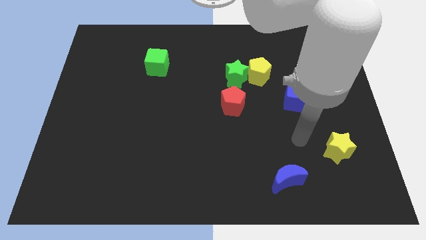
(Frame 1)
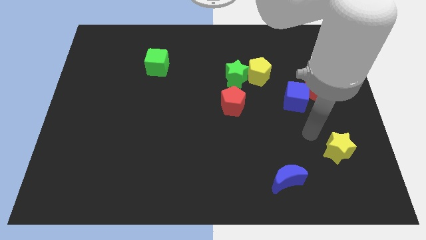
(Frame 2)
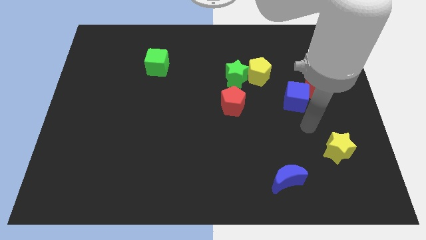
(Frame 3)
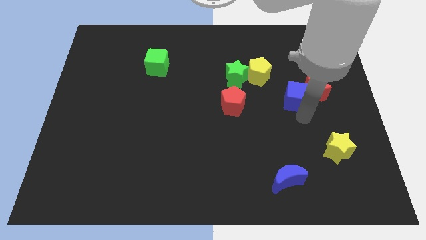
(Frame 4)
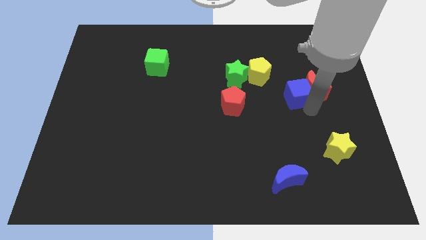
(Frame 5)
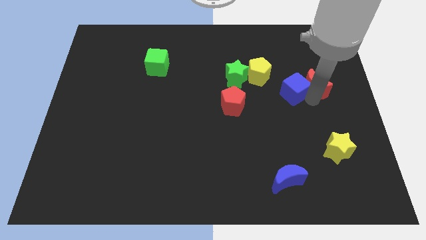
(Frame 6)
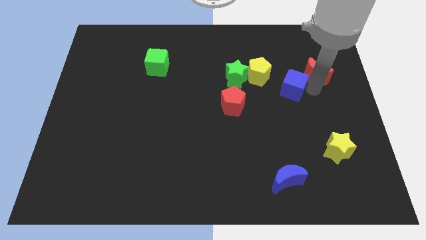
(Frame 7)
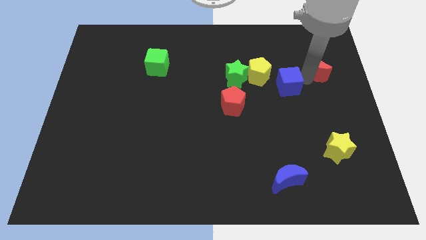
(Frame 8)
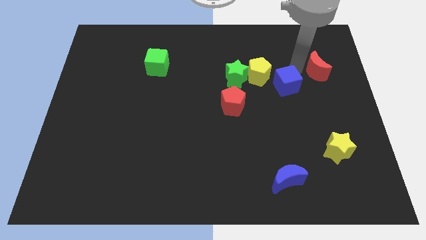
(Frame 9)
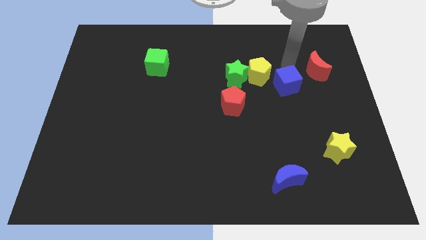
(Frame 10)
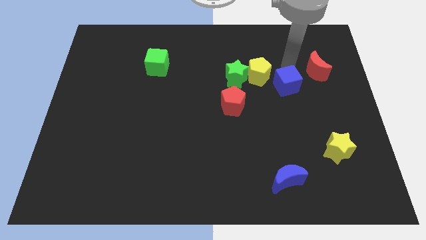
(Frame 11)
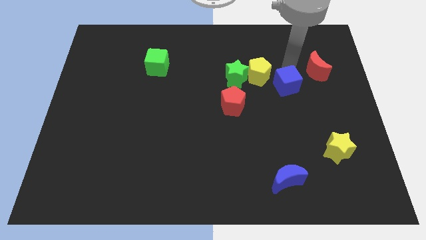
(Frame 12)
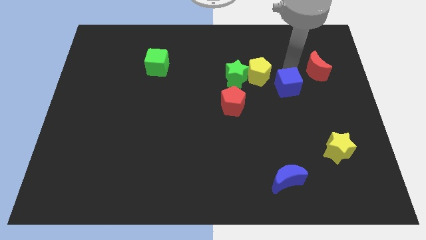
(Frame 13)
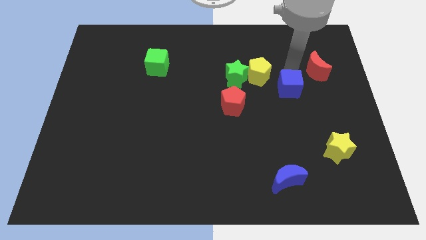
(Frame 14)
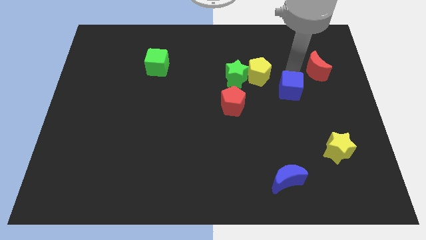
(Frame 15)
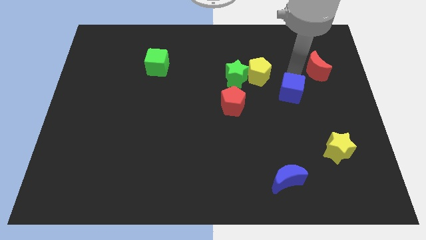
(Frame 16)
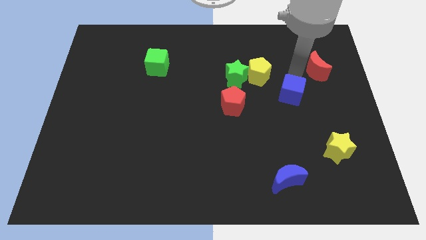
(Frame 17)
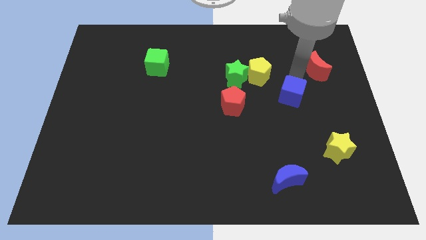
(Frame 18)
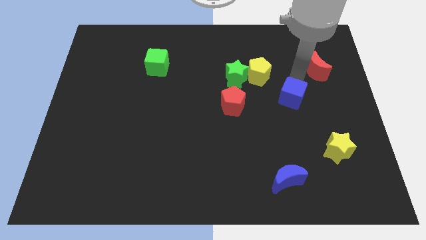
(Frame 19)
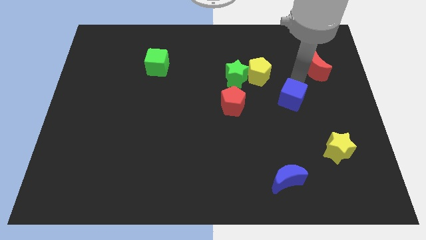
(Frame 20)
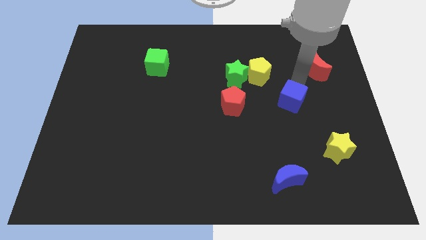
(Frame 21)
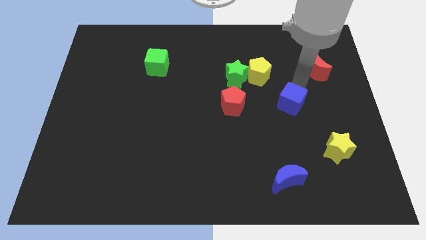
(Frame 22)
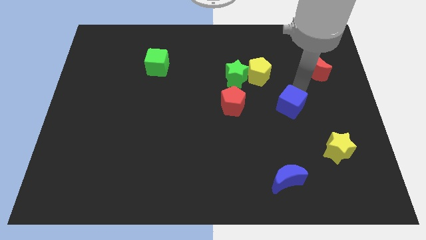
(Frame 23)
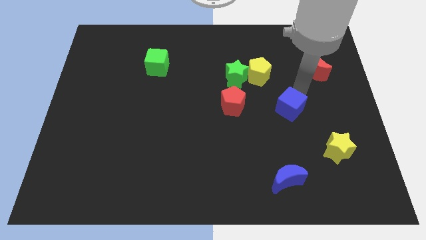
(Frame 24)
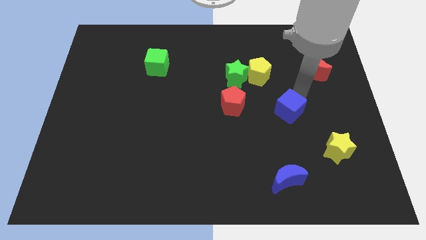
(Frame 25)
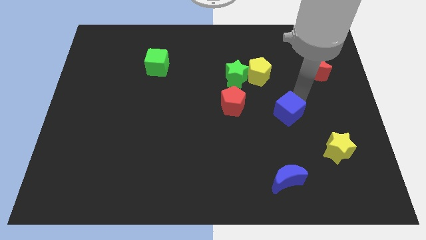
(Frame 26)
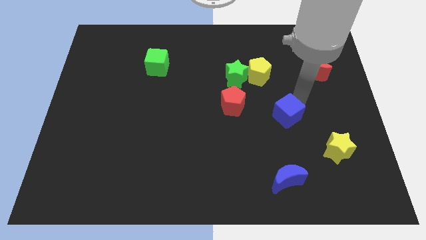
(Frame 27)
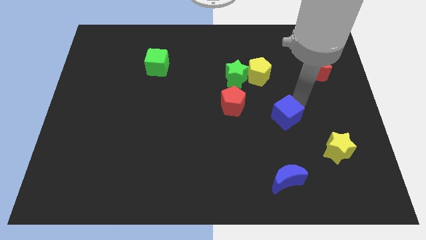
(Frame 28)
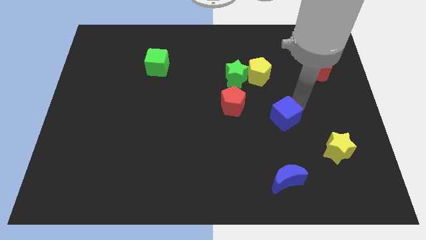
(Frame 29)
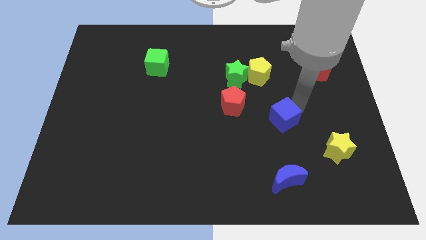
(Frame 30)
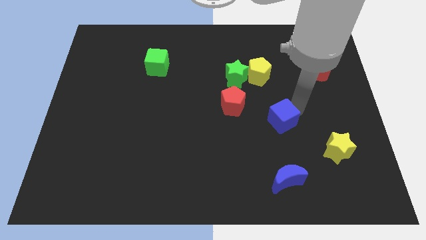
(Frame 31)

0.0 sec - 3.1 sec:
move the blue cube downwards and to the left diagonally a bit

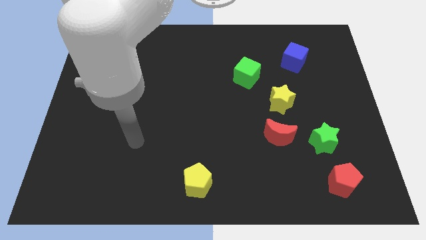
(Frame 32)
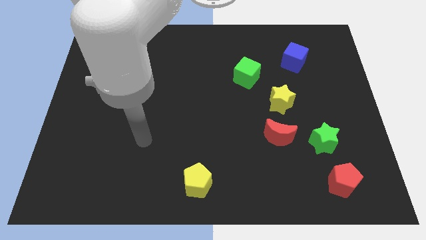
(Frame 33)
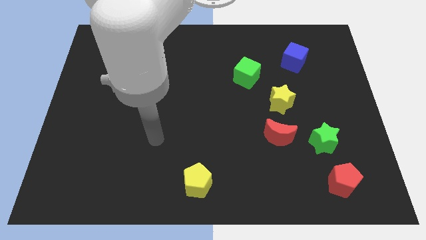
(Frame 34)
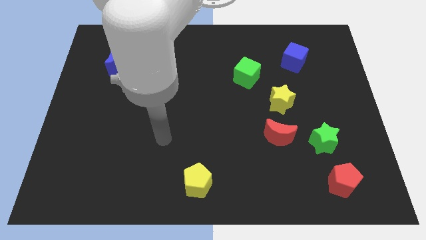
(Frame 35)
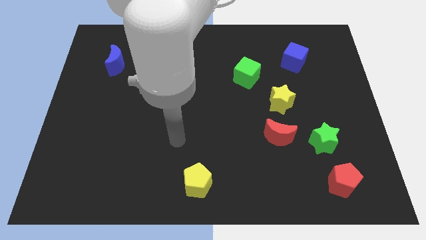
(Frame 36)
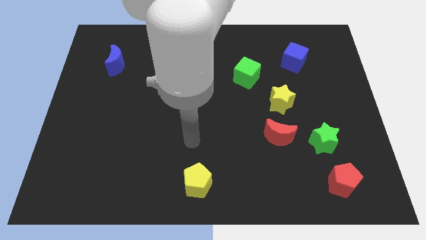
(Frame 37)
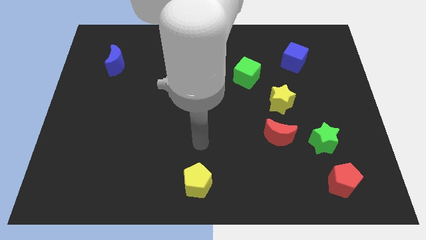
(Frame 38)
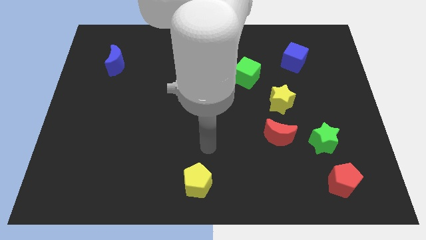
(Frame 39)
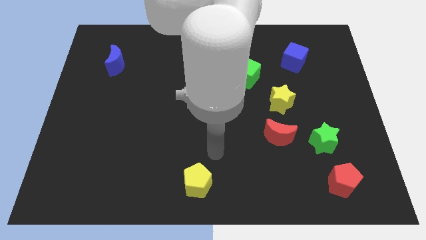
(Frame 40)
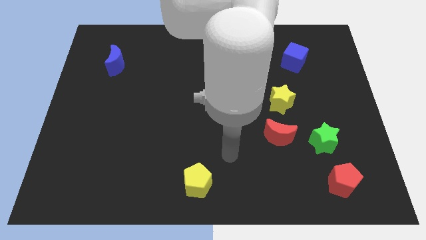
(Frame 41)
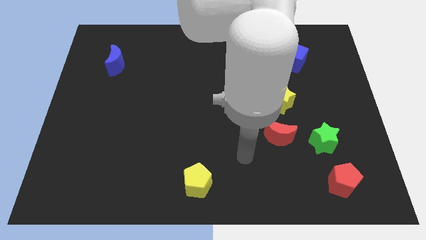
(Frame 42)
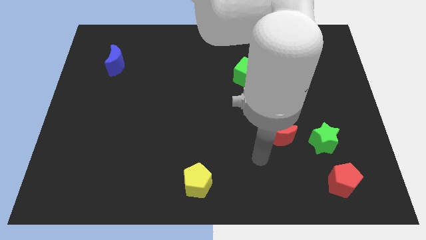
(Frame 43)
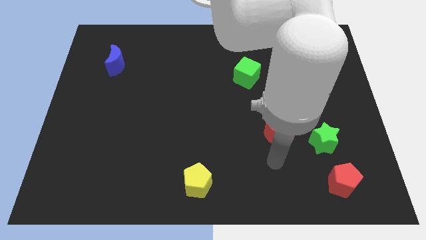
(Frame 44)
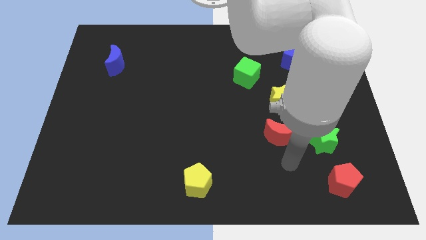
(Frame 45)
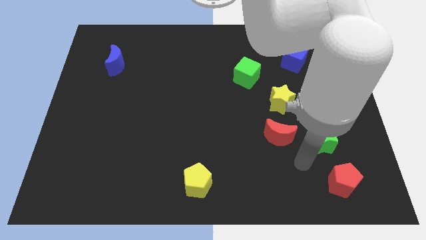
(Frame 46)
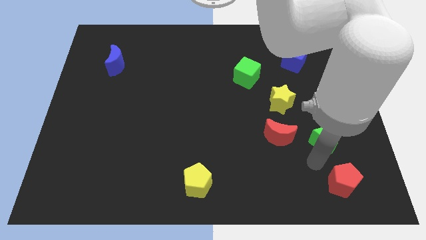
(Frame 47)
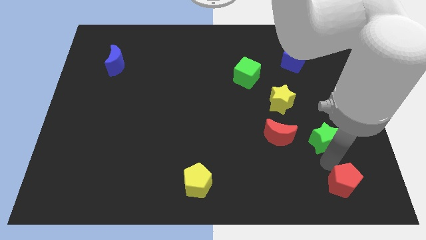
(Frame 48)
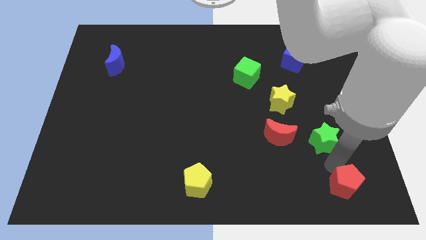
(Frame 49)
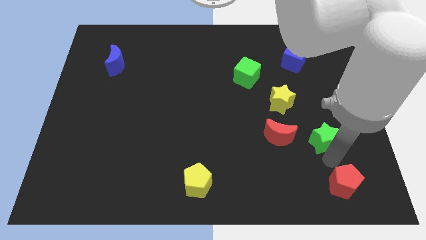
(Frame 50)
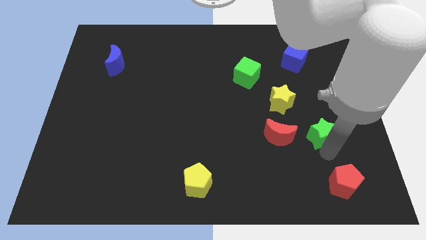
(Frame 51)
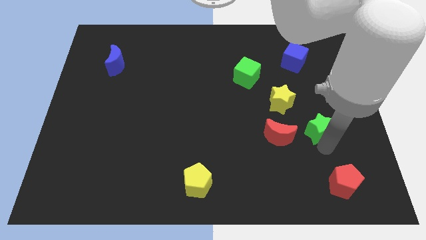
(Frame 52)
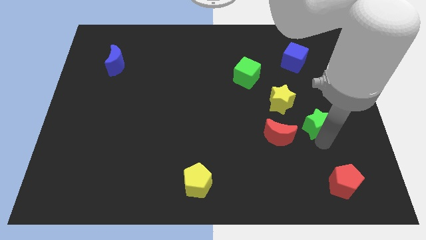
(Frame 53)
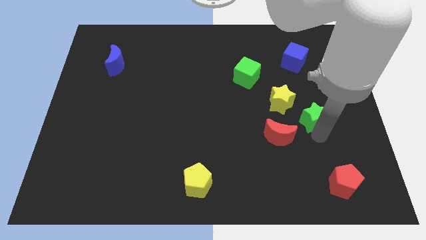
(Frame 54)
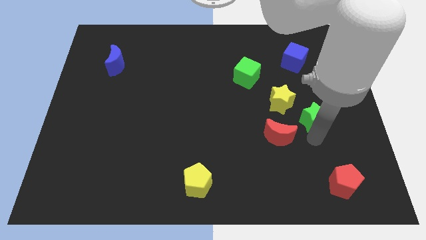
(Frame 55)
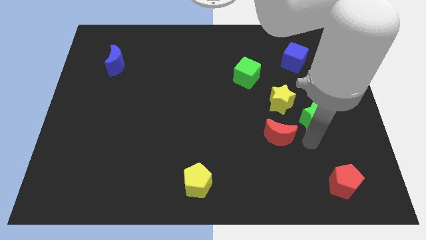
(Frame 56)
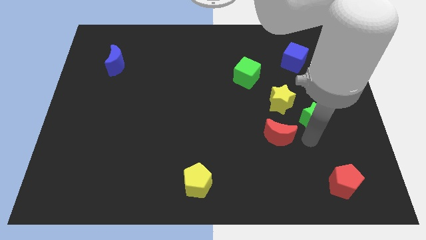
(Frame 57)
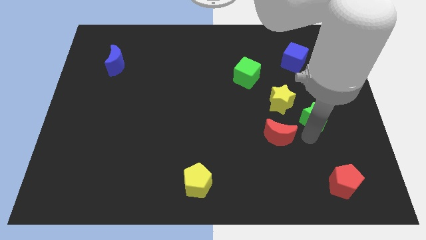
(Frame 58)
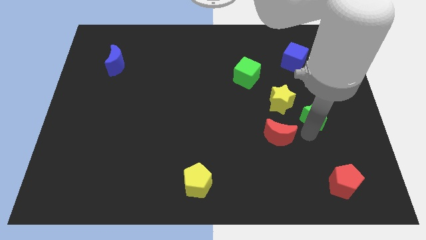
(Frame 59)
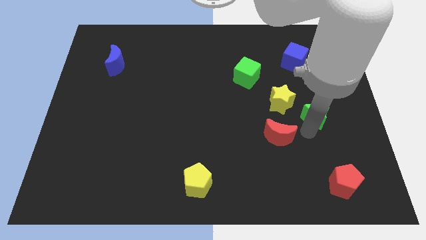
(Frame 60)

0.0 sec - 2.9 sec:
move the green star up a bit

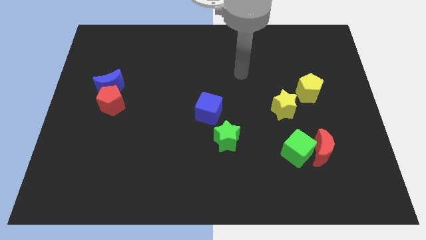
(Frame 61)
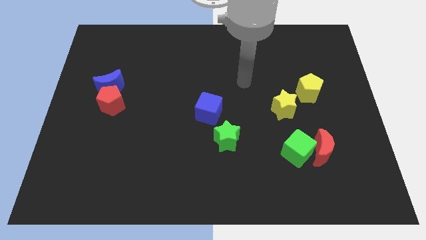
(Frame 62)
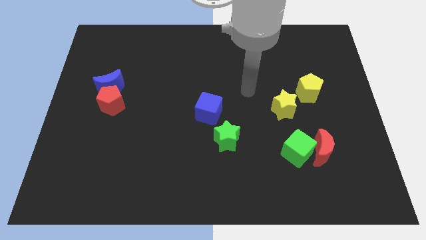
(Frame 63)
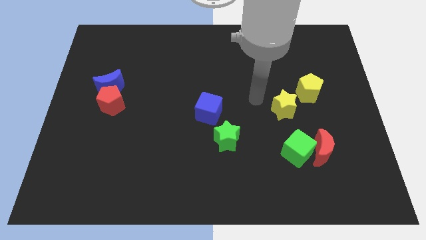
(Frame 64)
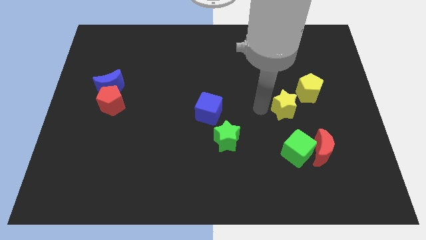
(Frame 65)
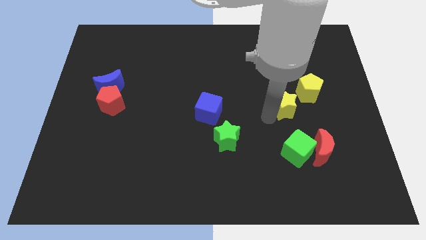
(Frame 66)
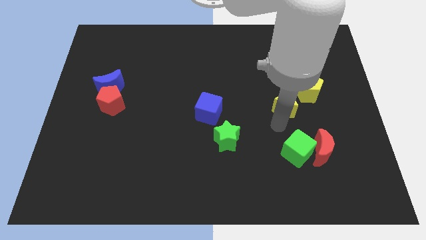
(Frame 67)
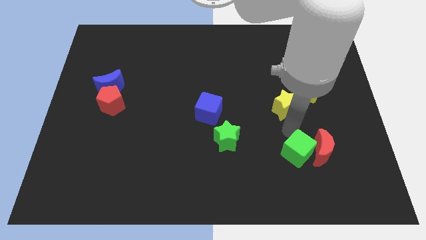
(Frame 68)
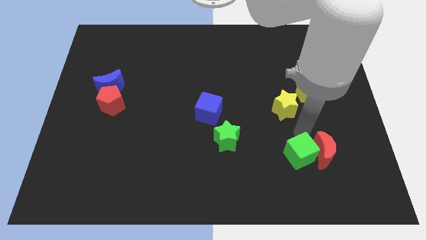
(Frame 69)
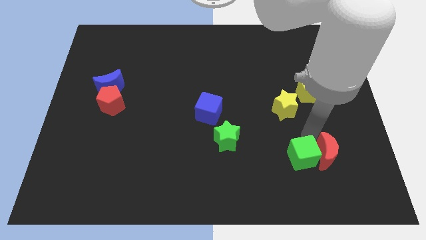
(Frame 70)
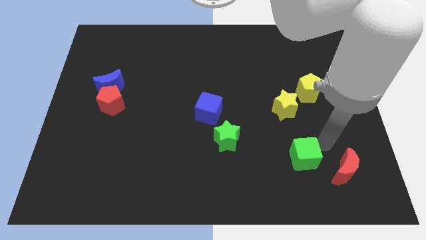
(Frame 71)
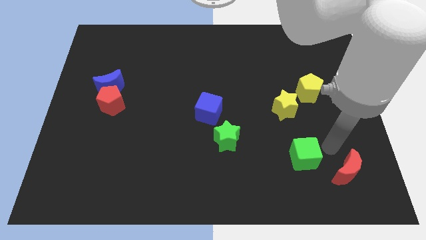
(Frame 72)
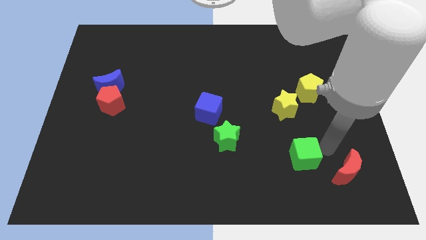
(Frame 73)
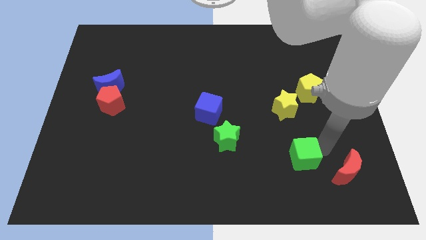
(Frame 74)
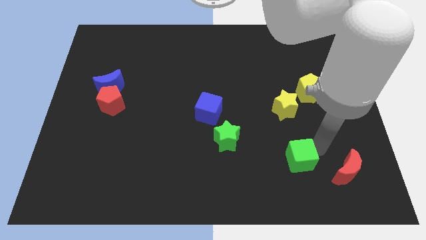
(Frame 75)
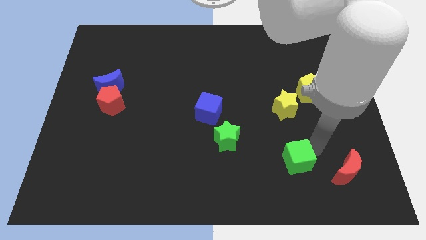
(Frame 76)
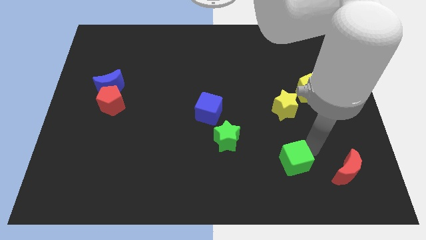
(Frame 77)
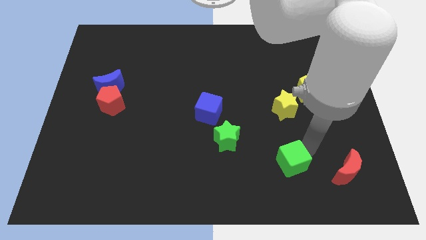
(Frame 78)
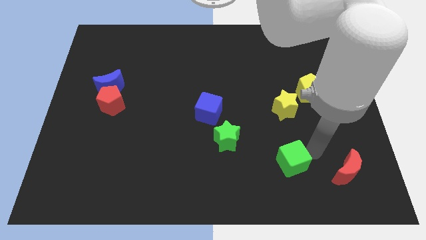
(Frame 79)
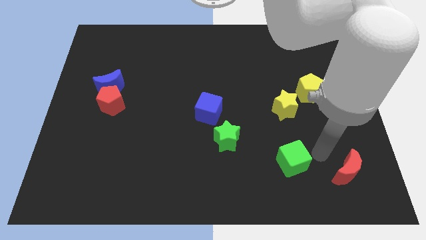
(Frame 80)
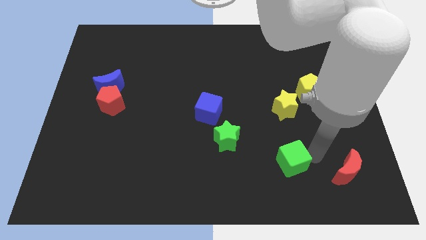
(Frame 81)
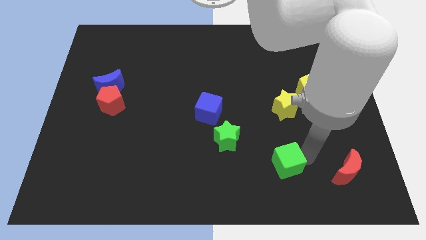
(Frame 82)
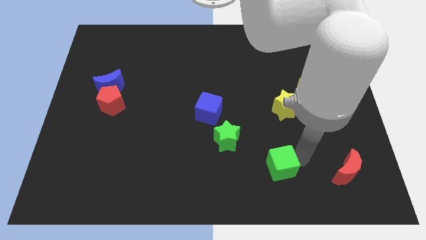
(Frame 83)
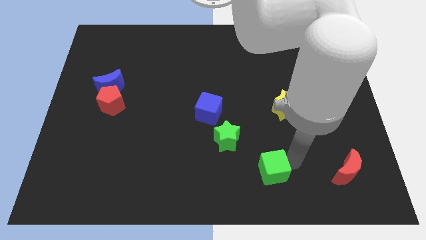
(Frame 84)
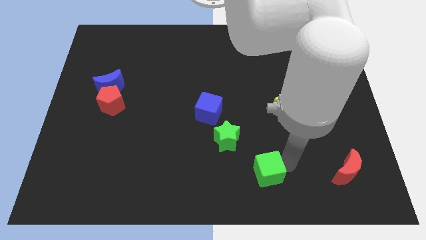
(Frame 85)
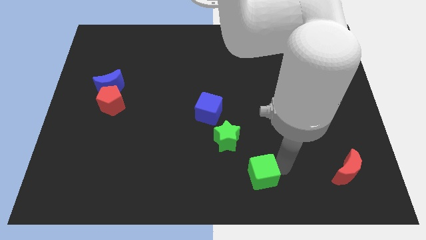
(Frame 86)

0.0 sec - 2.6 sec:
push the green cube to the left somewhat
